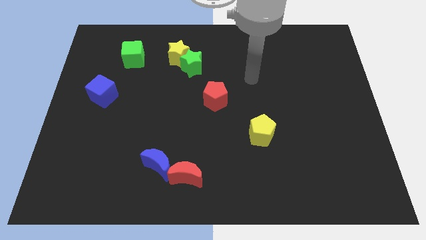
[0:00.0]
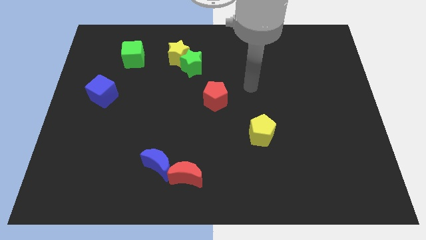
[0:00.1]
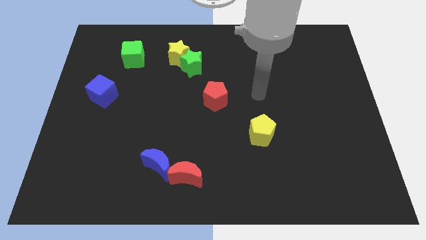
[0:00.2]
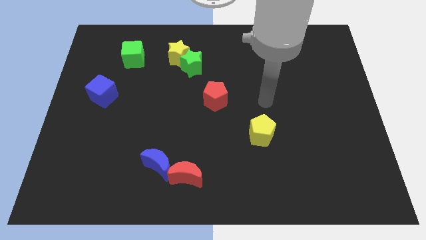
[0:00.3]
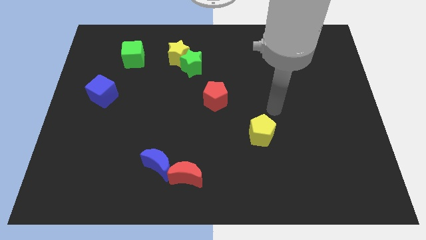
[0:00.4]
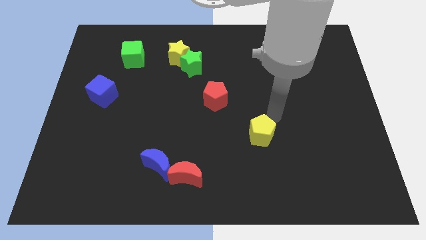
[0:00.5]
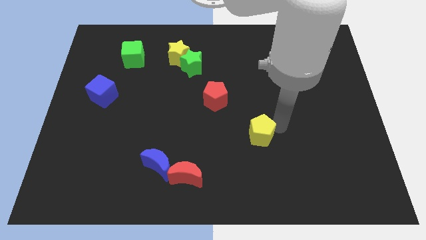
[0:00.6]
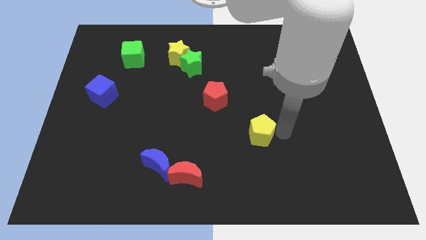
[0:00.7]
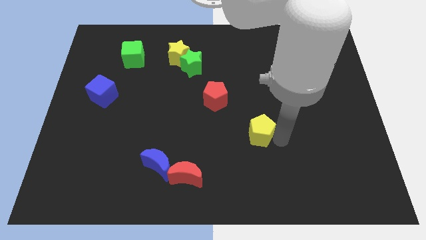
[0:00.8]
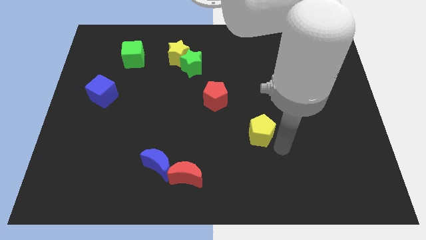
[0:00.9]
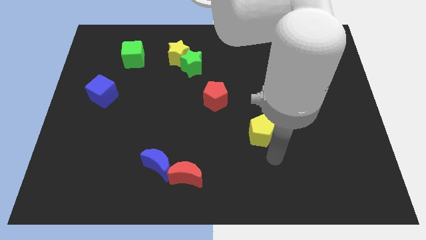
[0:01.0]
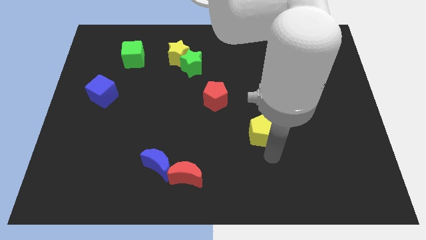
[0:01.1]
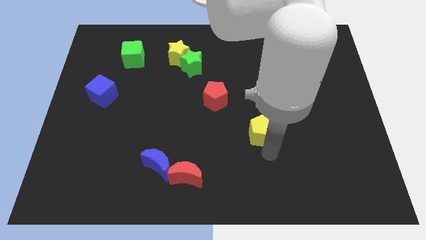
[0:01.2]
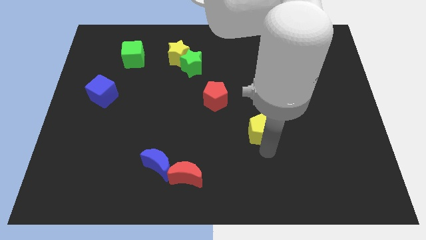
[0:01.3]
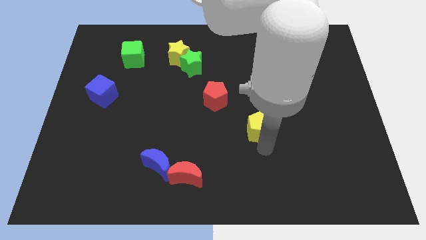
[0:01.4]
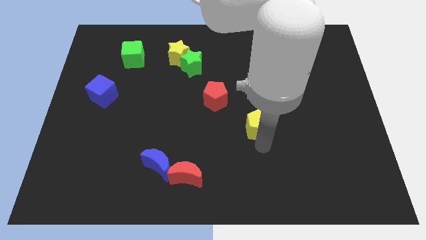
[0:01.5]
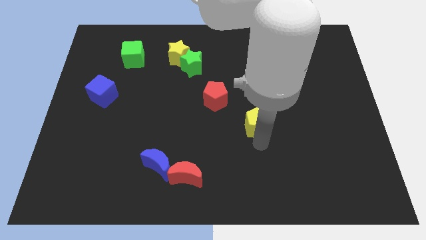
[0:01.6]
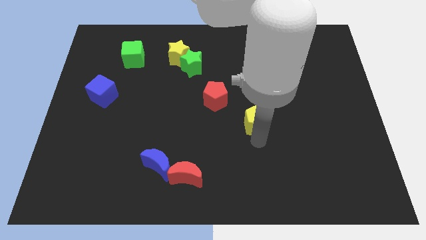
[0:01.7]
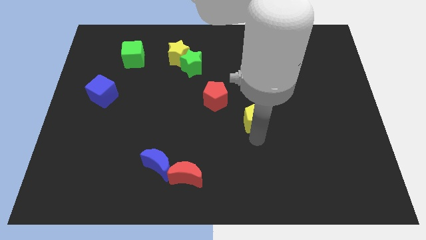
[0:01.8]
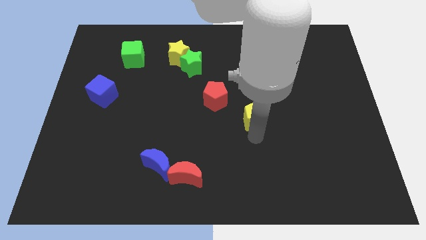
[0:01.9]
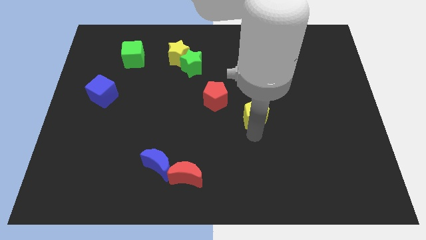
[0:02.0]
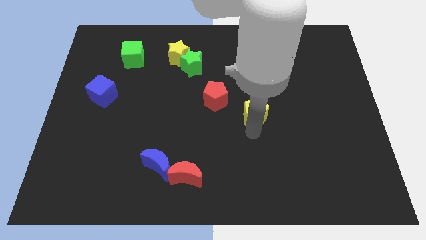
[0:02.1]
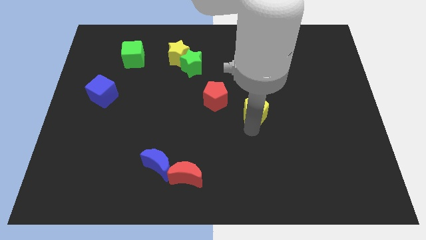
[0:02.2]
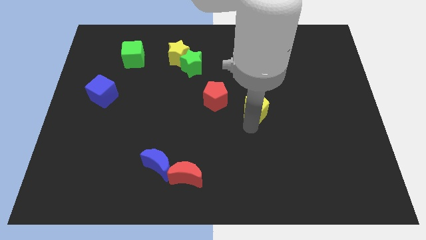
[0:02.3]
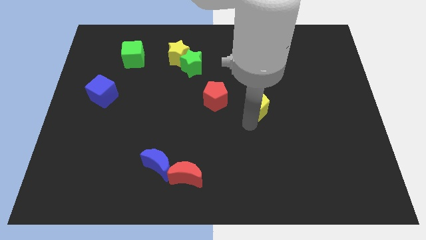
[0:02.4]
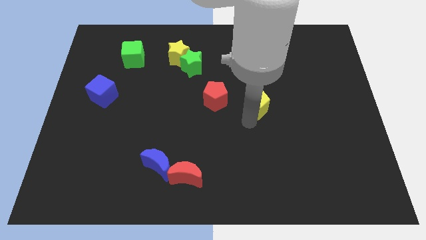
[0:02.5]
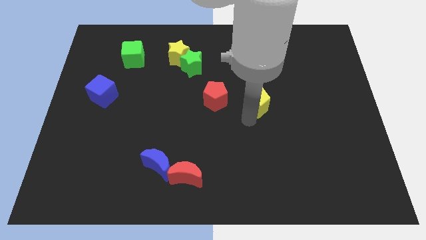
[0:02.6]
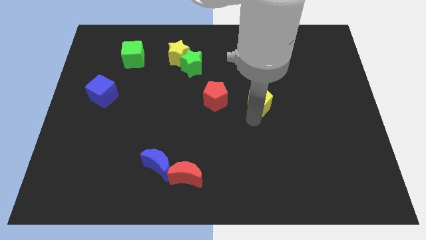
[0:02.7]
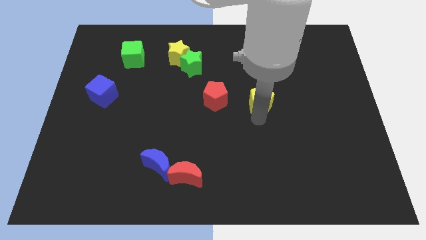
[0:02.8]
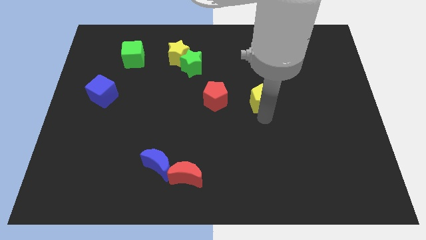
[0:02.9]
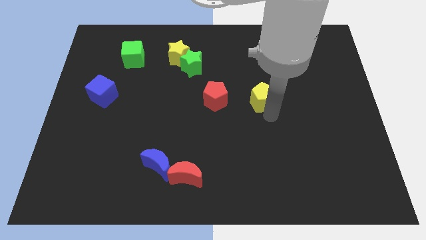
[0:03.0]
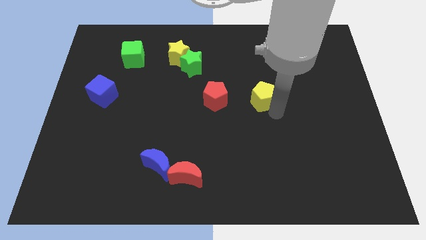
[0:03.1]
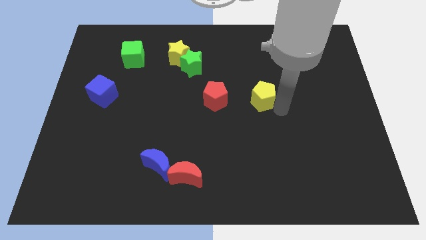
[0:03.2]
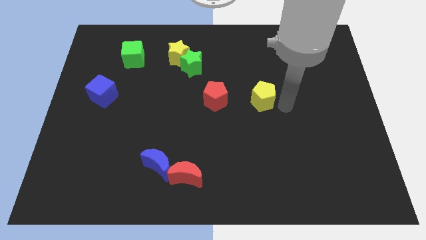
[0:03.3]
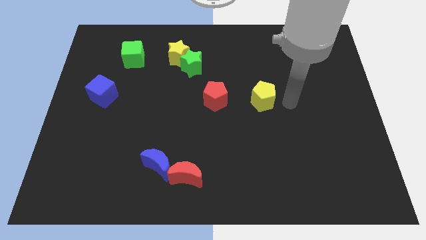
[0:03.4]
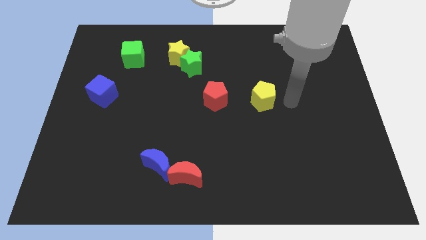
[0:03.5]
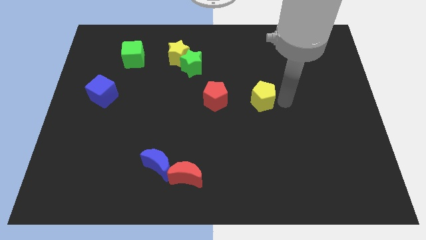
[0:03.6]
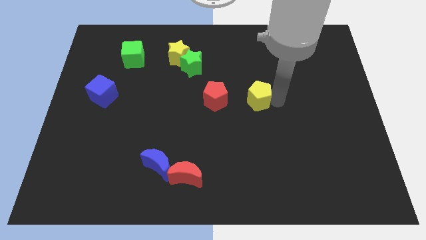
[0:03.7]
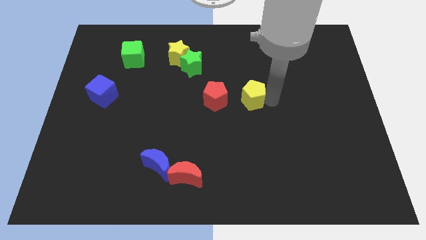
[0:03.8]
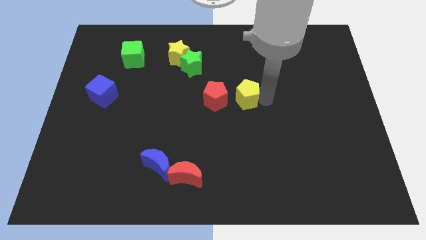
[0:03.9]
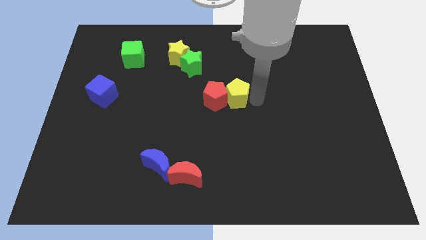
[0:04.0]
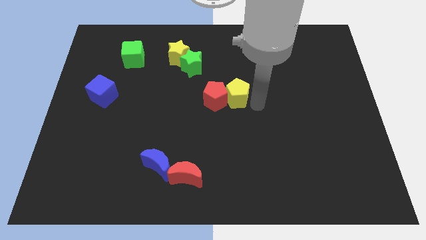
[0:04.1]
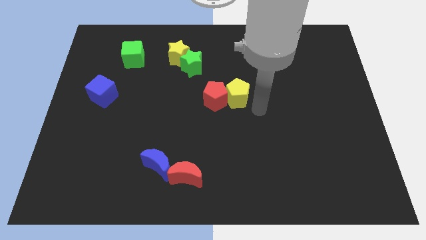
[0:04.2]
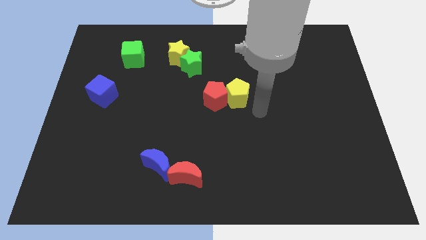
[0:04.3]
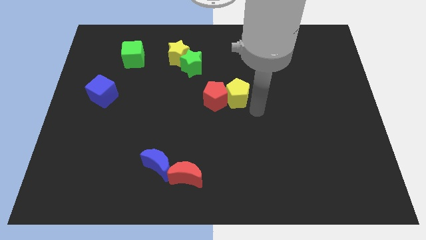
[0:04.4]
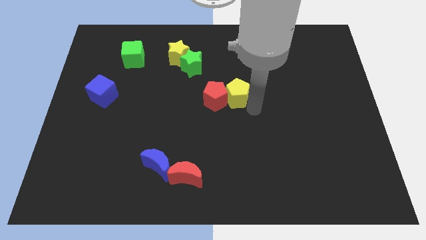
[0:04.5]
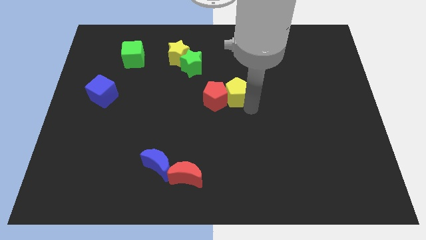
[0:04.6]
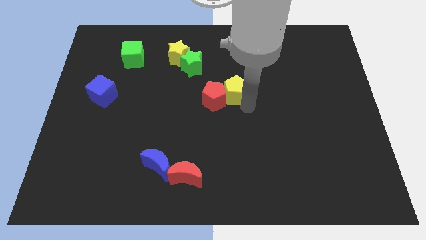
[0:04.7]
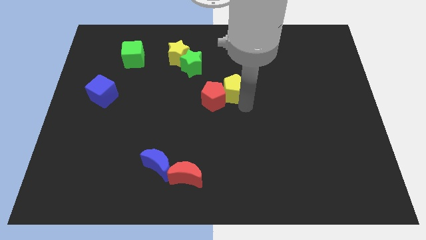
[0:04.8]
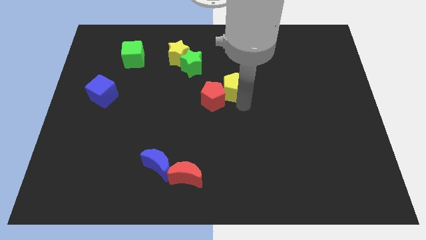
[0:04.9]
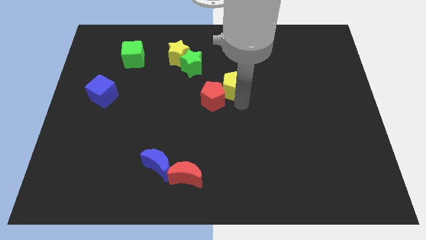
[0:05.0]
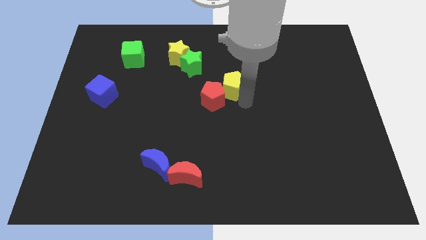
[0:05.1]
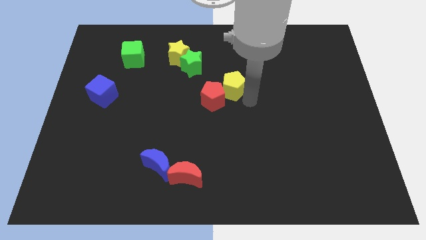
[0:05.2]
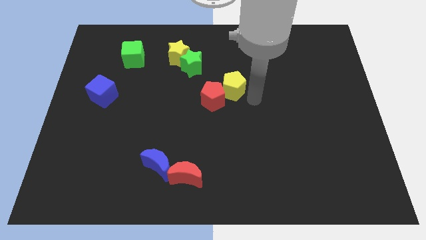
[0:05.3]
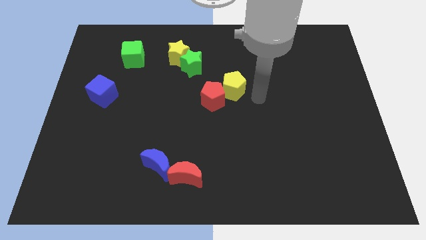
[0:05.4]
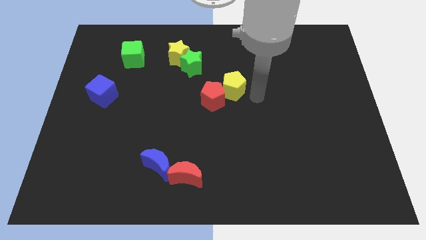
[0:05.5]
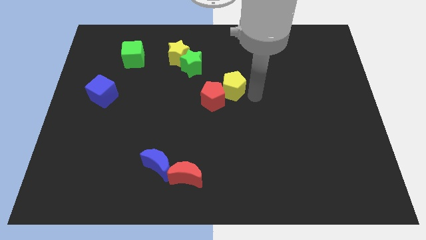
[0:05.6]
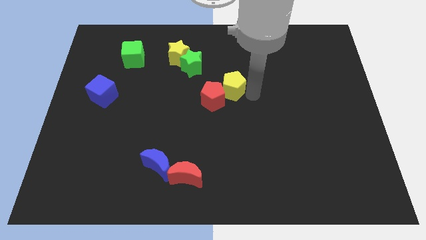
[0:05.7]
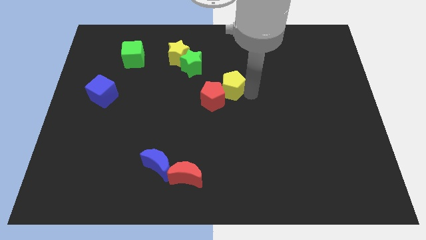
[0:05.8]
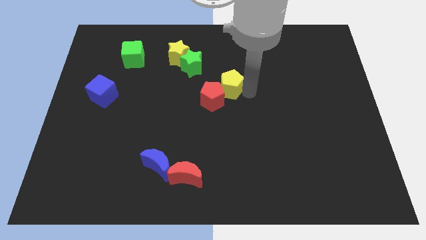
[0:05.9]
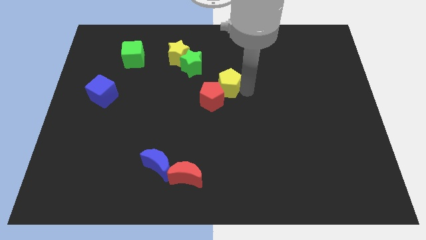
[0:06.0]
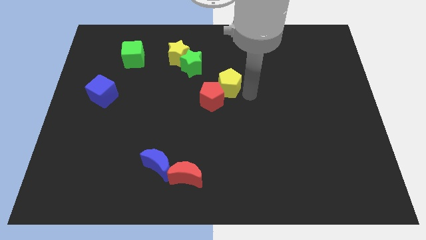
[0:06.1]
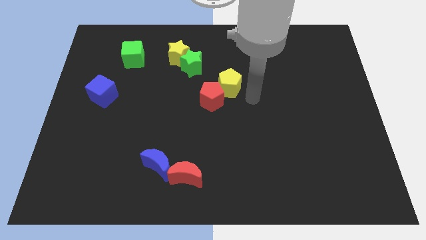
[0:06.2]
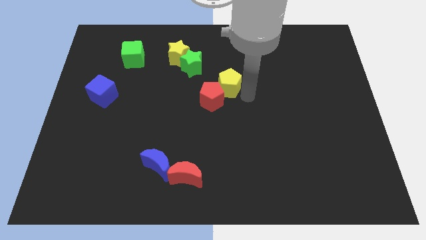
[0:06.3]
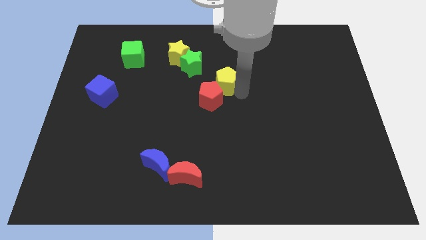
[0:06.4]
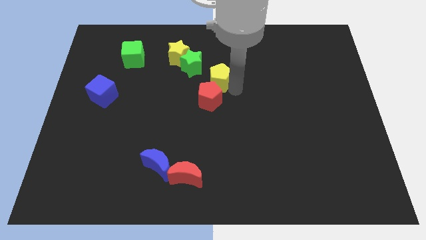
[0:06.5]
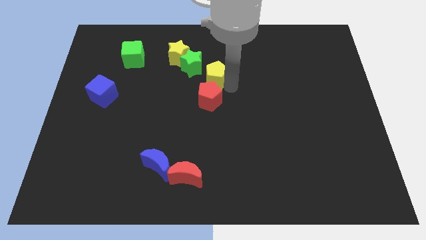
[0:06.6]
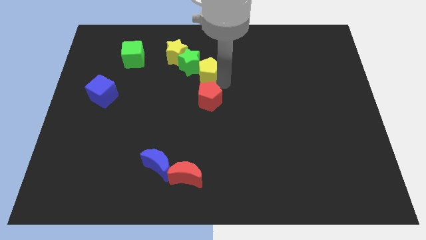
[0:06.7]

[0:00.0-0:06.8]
slide the yellow pentagon towards the green star

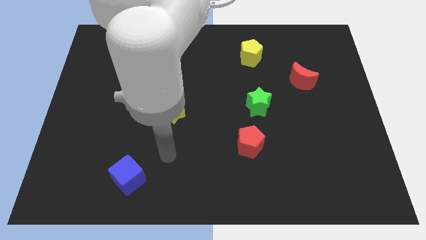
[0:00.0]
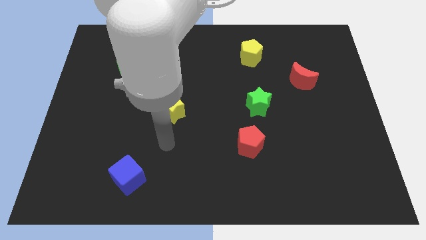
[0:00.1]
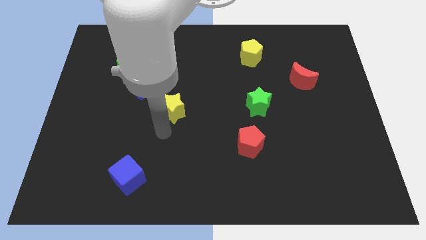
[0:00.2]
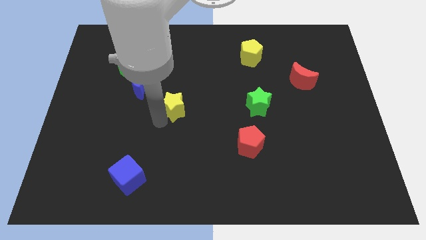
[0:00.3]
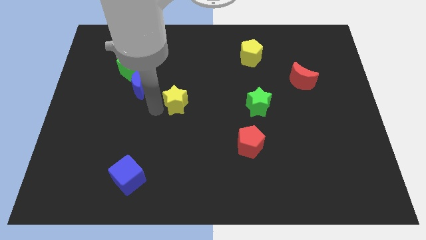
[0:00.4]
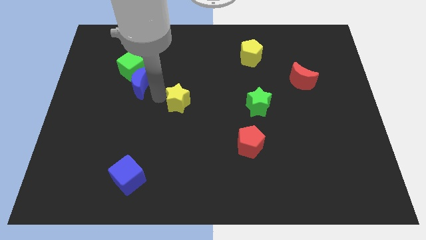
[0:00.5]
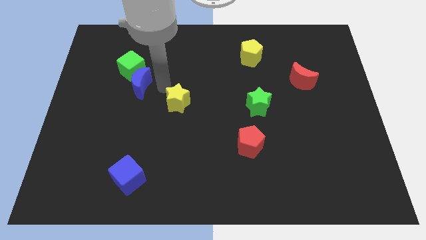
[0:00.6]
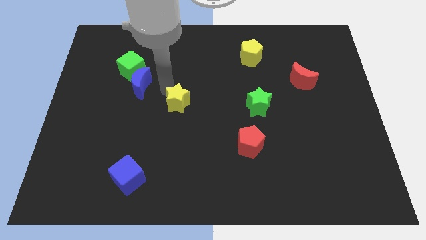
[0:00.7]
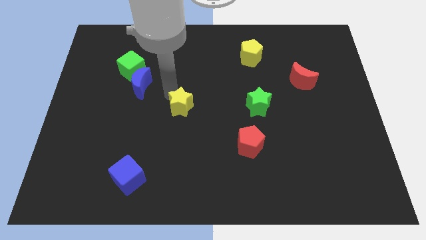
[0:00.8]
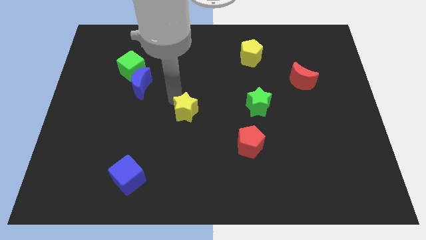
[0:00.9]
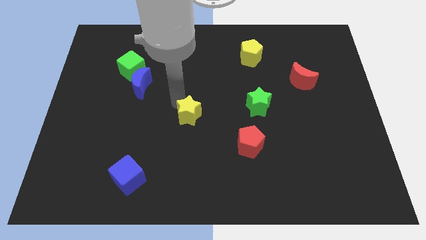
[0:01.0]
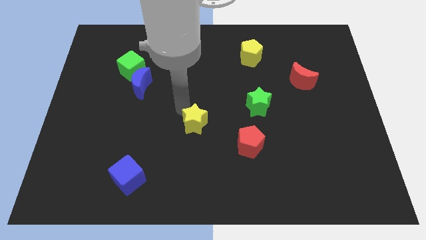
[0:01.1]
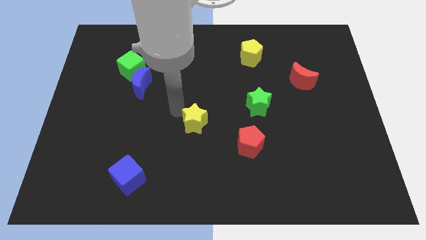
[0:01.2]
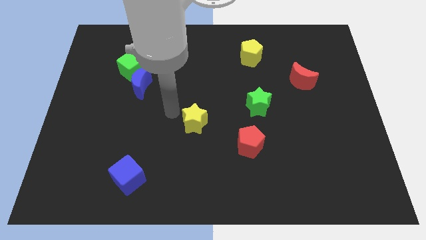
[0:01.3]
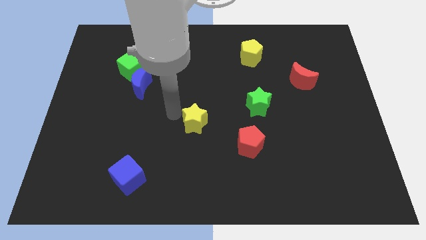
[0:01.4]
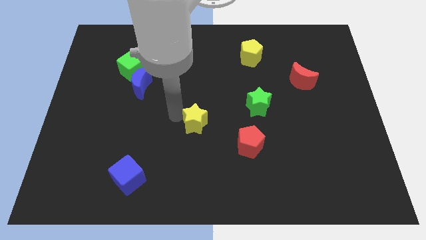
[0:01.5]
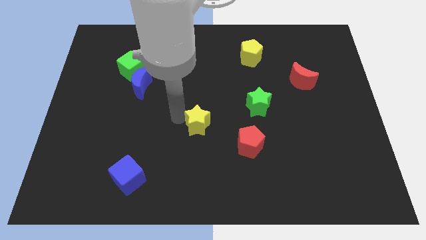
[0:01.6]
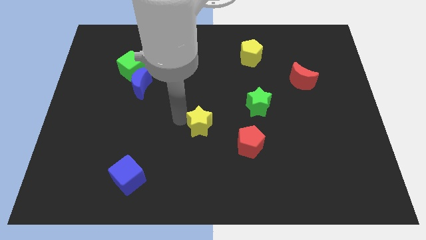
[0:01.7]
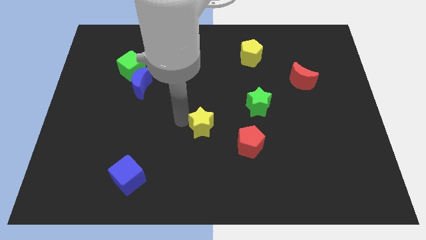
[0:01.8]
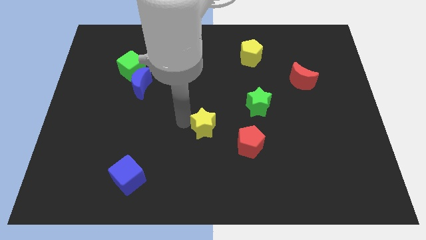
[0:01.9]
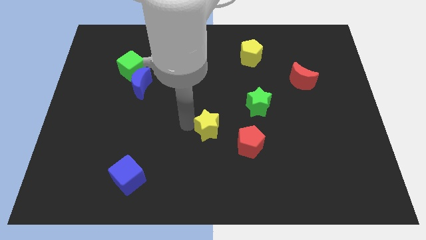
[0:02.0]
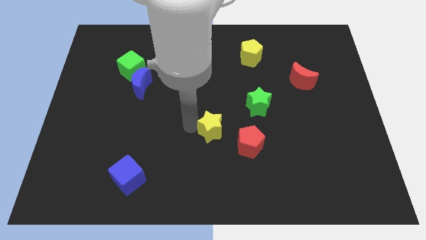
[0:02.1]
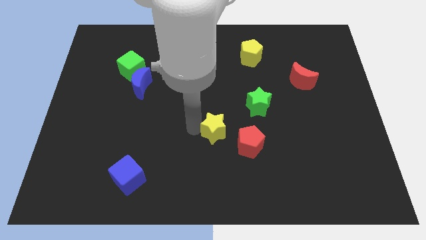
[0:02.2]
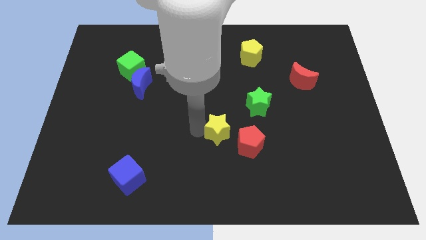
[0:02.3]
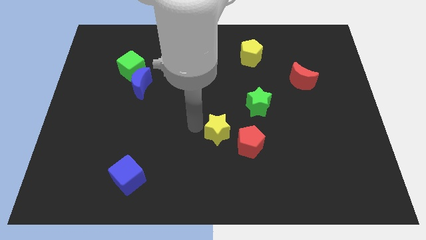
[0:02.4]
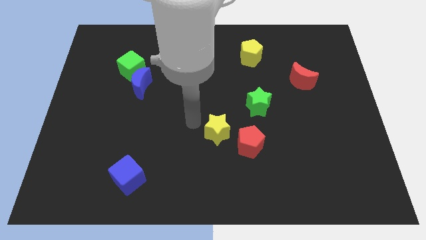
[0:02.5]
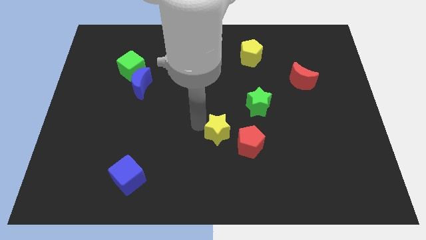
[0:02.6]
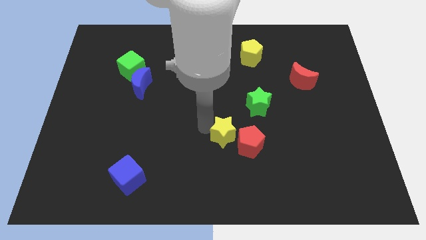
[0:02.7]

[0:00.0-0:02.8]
move the yellow star next to the red pentagon
